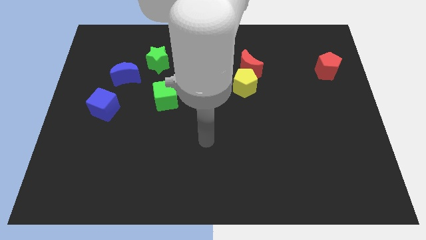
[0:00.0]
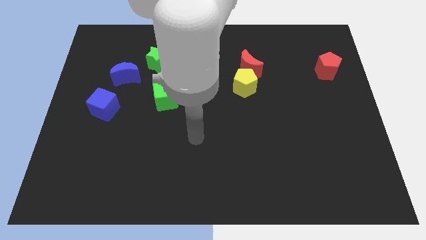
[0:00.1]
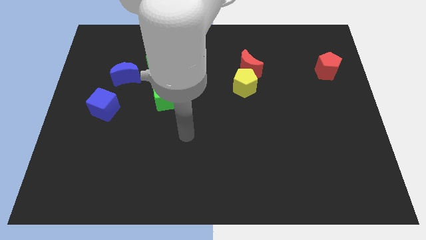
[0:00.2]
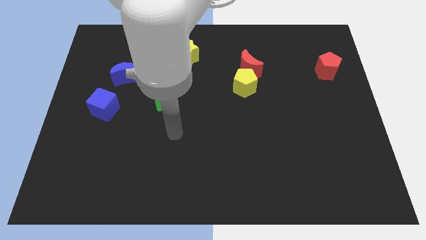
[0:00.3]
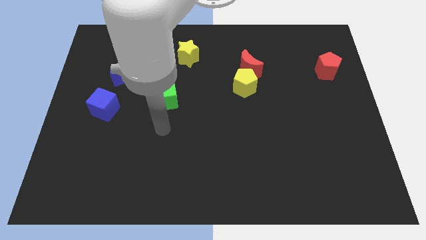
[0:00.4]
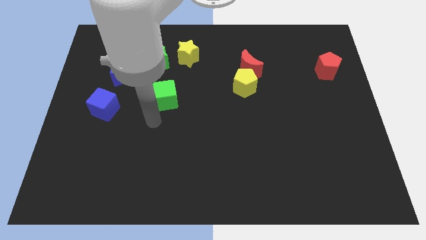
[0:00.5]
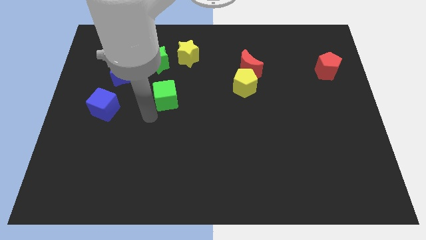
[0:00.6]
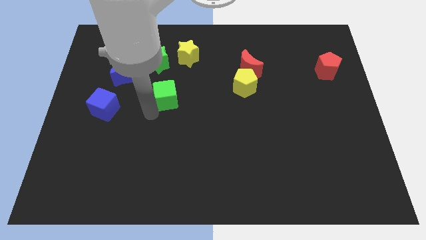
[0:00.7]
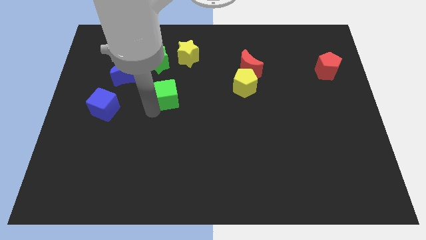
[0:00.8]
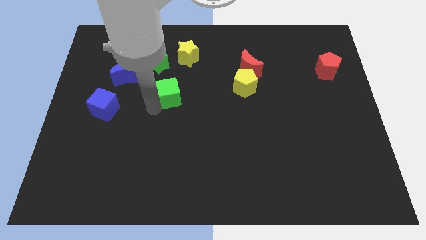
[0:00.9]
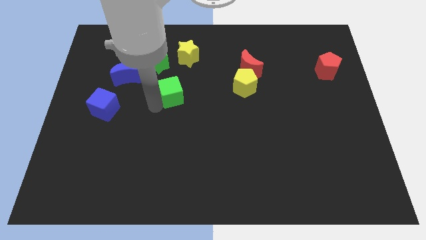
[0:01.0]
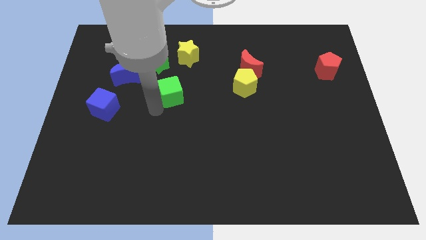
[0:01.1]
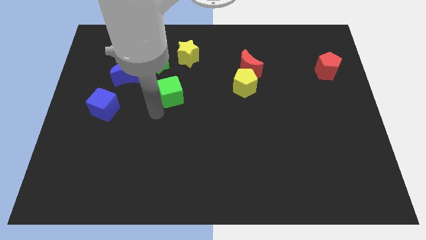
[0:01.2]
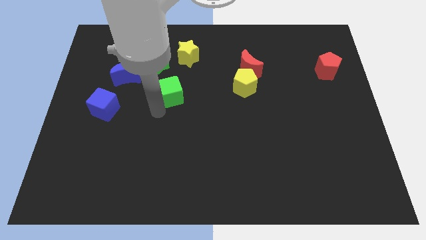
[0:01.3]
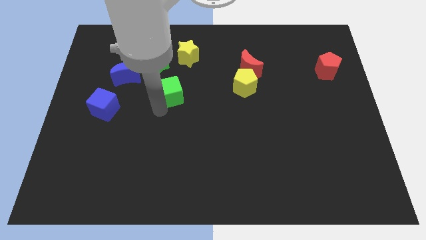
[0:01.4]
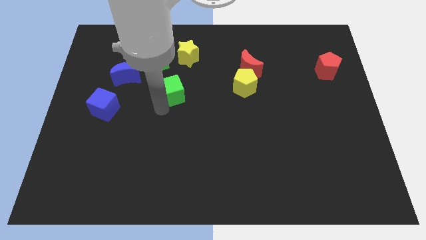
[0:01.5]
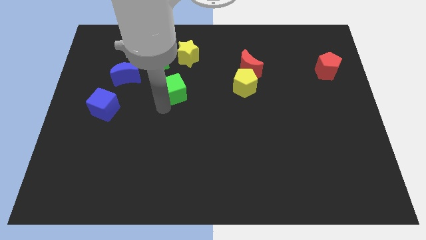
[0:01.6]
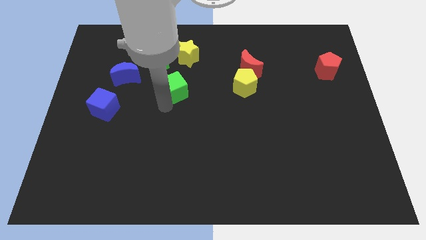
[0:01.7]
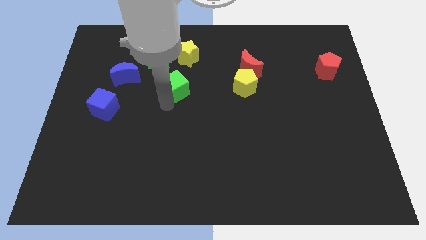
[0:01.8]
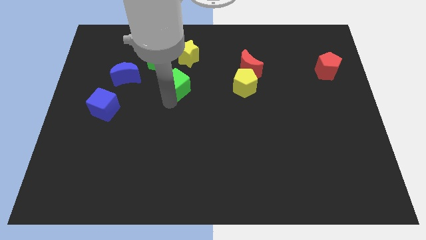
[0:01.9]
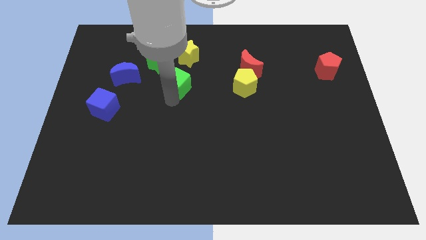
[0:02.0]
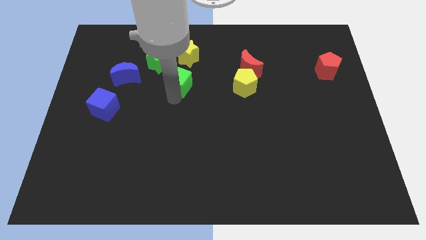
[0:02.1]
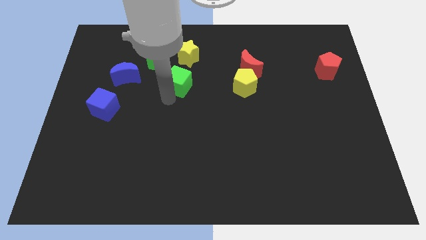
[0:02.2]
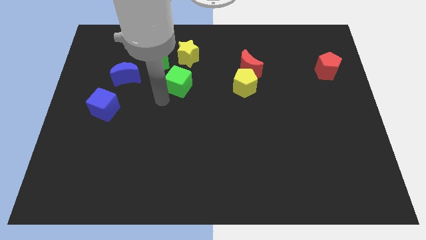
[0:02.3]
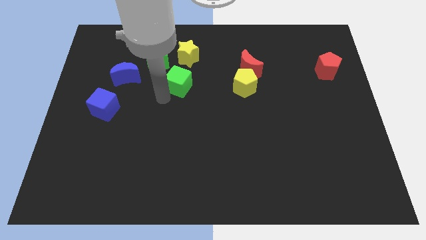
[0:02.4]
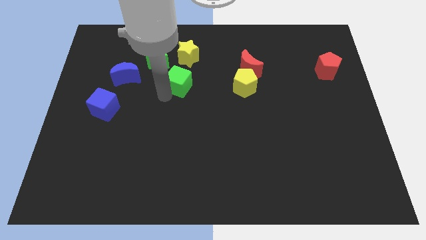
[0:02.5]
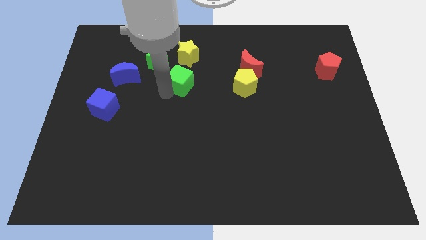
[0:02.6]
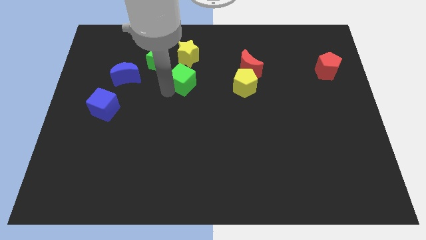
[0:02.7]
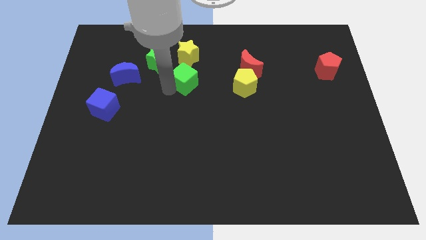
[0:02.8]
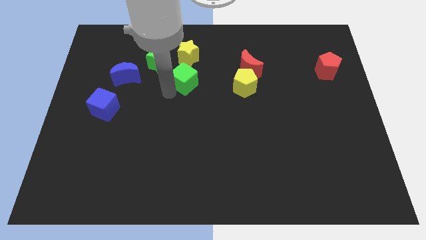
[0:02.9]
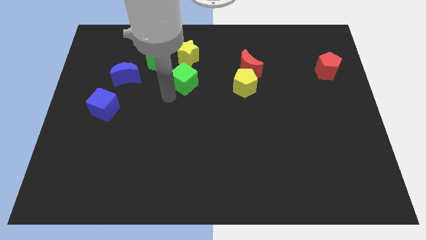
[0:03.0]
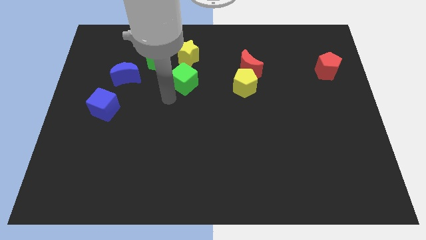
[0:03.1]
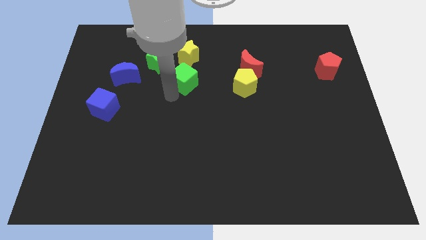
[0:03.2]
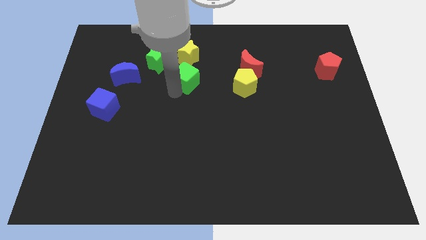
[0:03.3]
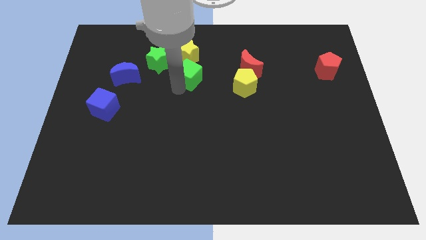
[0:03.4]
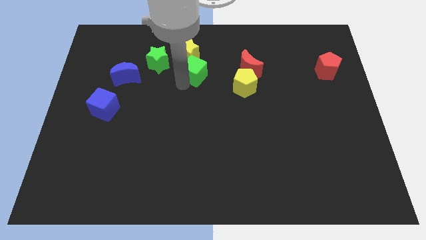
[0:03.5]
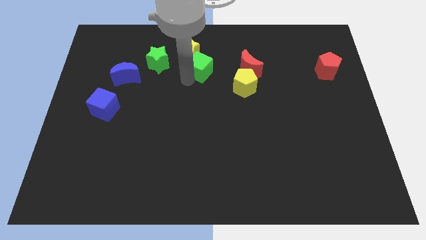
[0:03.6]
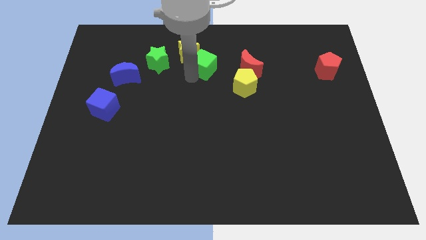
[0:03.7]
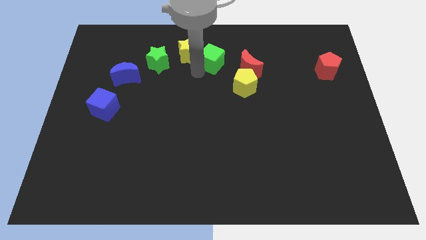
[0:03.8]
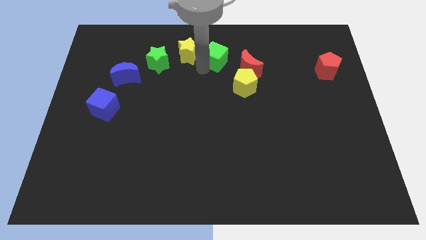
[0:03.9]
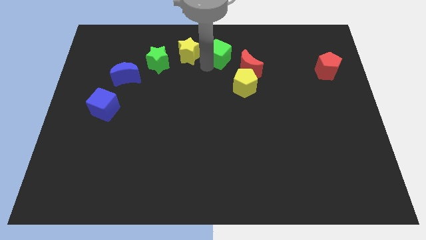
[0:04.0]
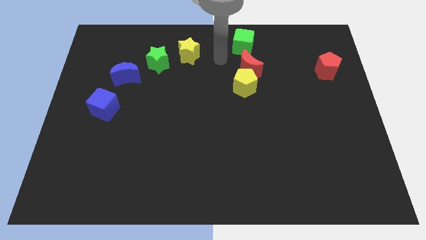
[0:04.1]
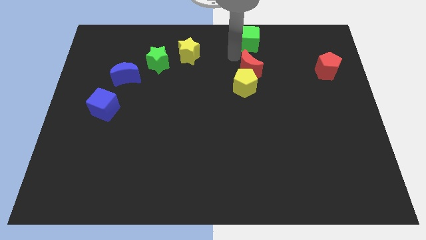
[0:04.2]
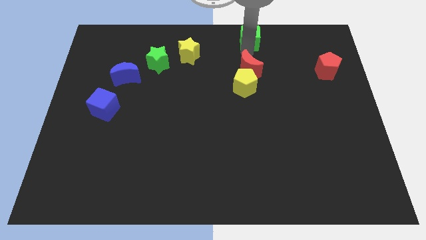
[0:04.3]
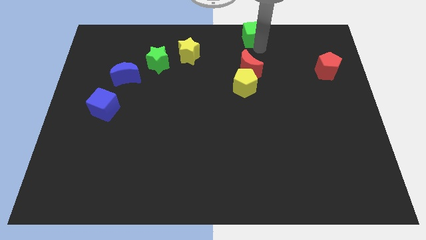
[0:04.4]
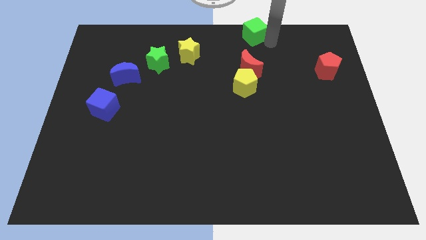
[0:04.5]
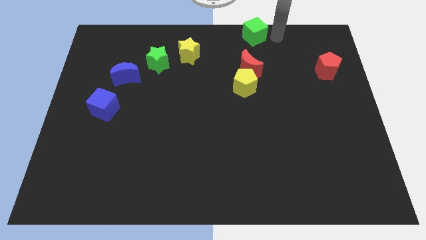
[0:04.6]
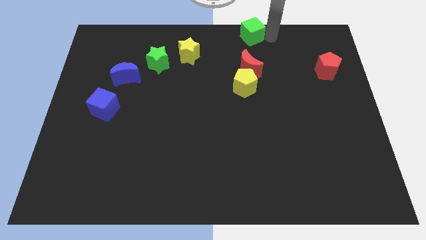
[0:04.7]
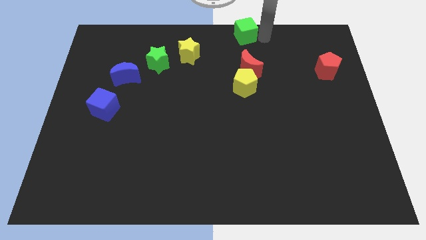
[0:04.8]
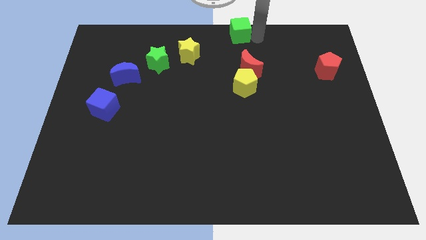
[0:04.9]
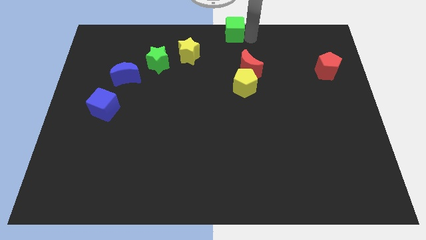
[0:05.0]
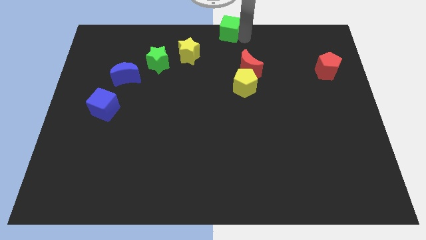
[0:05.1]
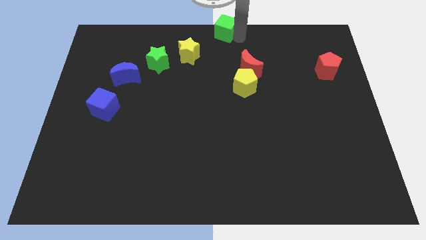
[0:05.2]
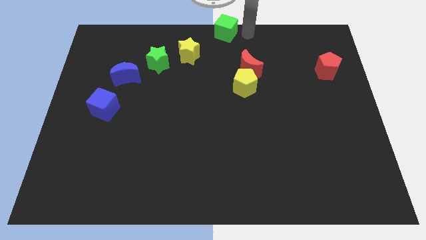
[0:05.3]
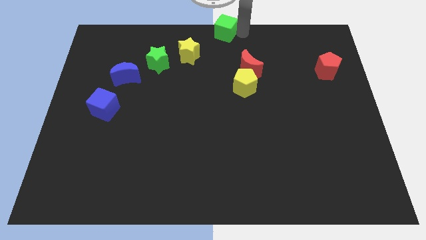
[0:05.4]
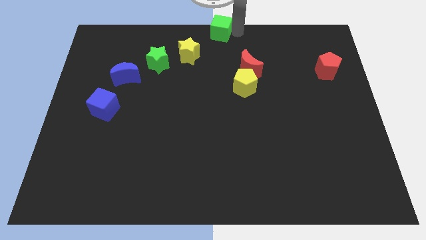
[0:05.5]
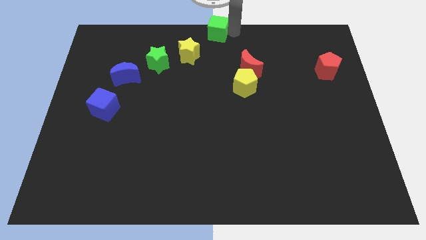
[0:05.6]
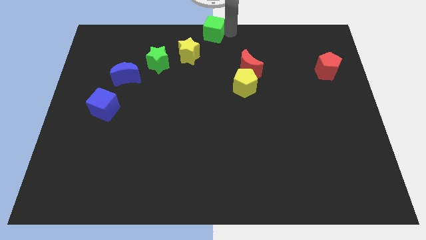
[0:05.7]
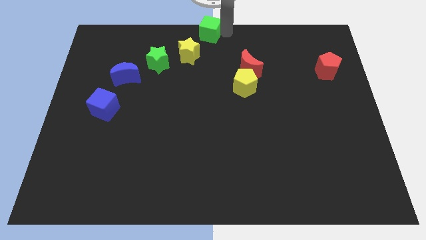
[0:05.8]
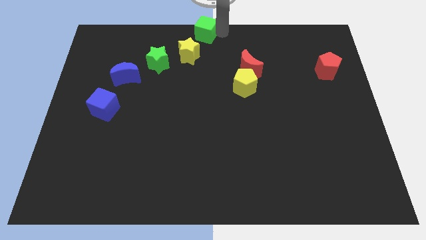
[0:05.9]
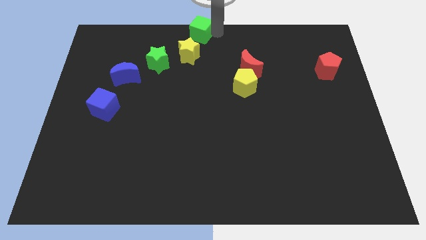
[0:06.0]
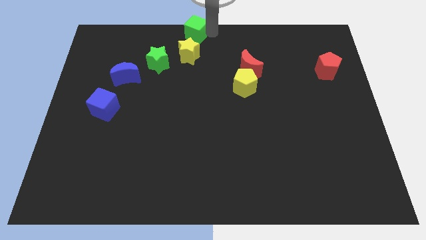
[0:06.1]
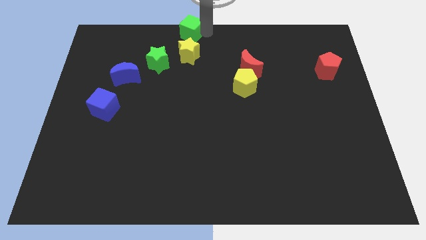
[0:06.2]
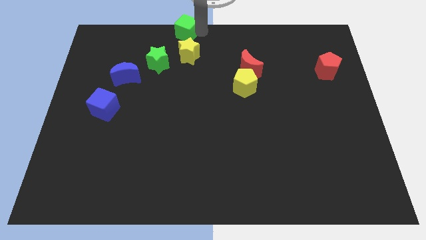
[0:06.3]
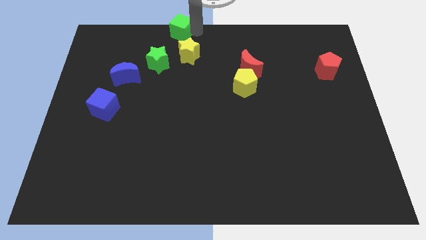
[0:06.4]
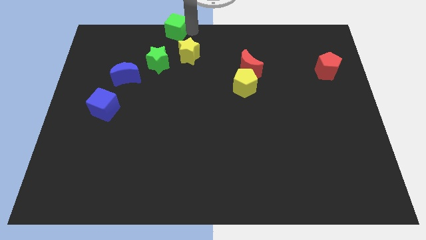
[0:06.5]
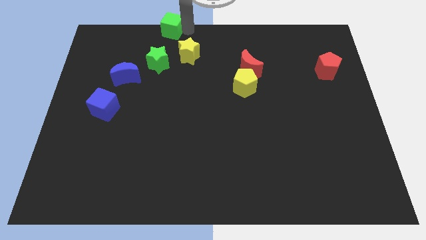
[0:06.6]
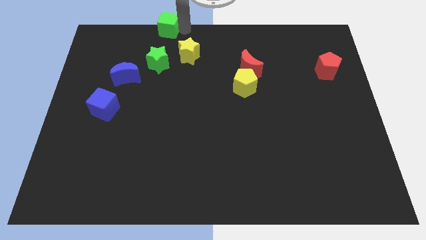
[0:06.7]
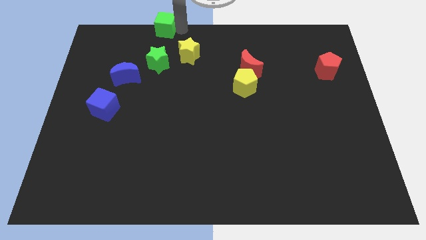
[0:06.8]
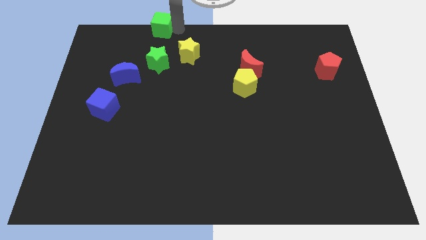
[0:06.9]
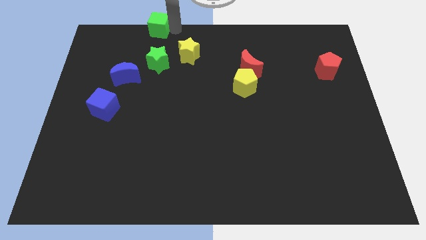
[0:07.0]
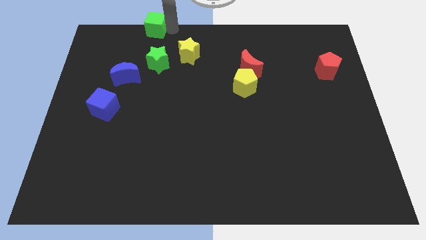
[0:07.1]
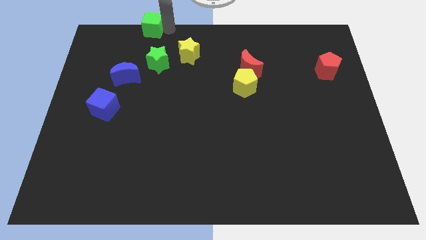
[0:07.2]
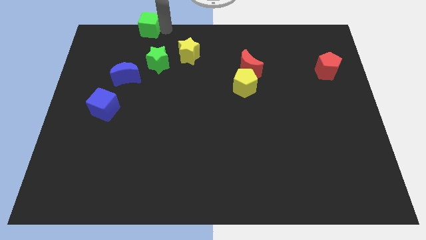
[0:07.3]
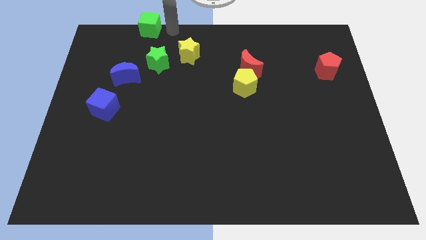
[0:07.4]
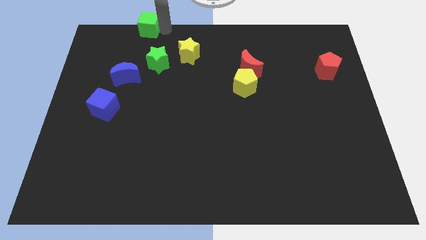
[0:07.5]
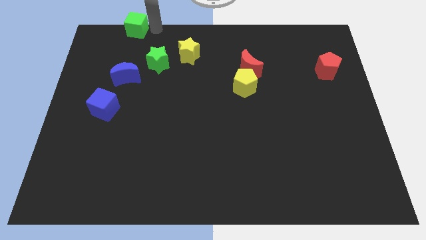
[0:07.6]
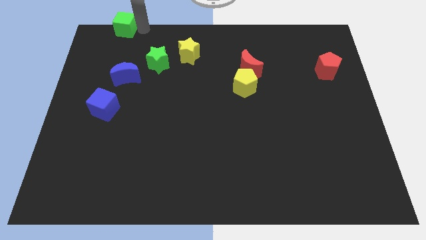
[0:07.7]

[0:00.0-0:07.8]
put the green cube to the top left
